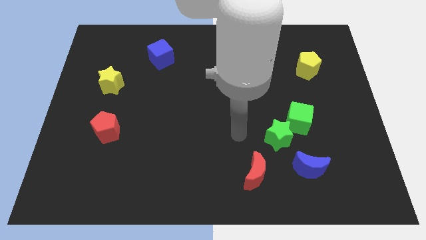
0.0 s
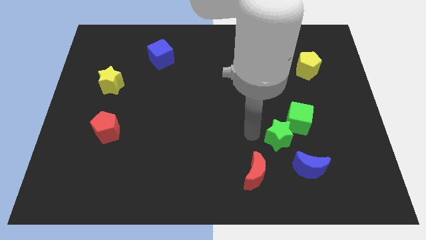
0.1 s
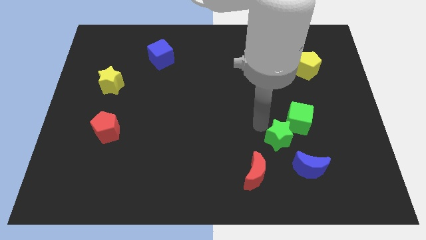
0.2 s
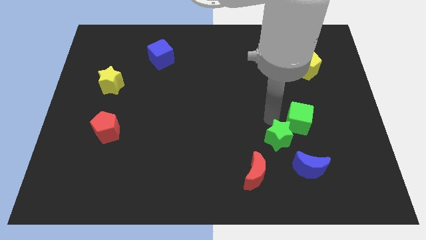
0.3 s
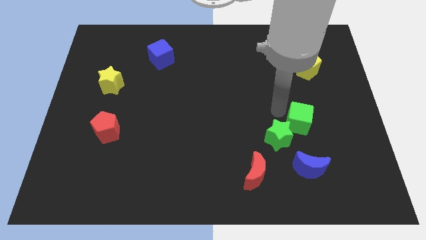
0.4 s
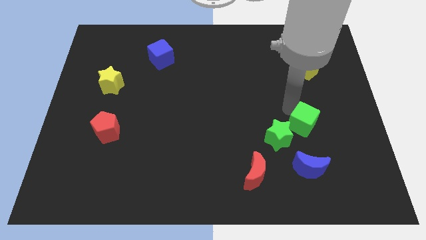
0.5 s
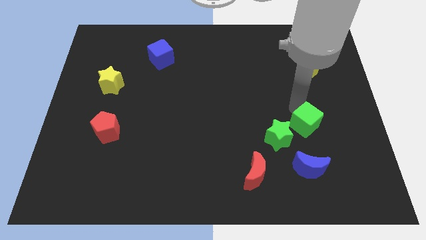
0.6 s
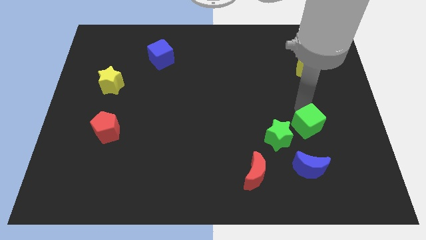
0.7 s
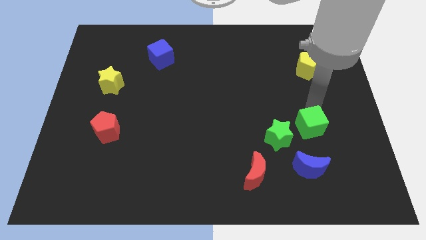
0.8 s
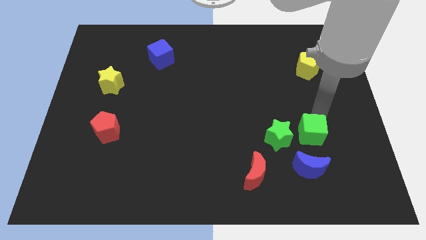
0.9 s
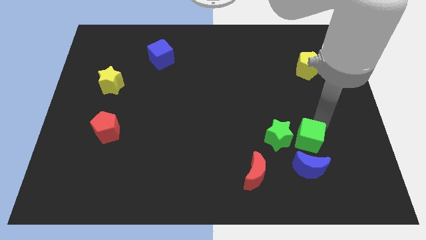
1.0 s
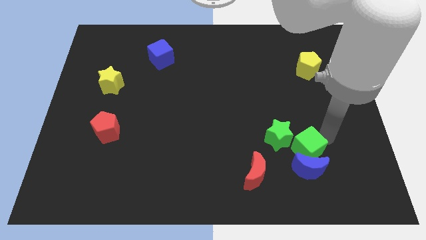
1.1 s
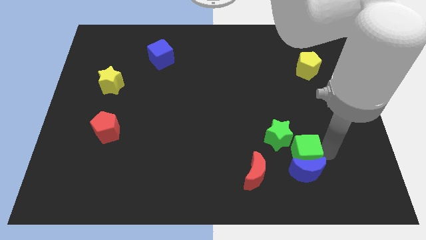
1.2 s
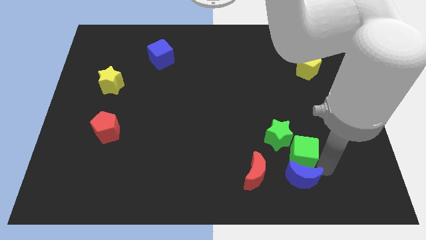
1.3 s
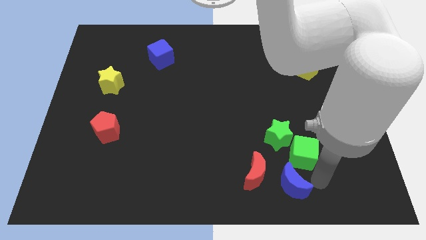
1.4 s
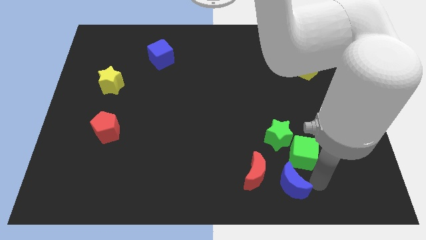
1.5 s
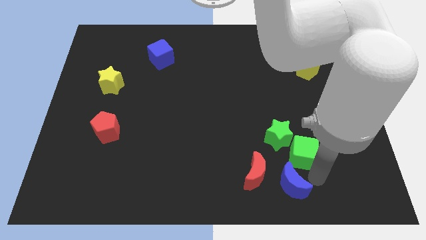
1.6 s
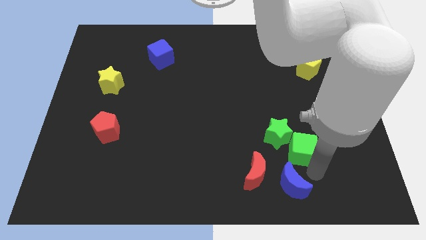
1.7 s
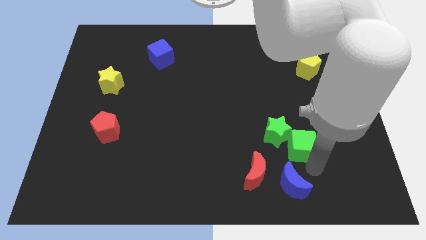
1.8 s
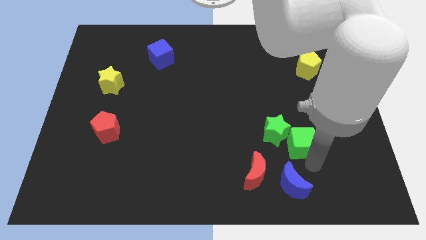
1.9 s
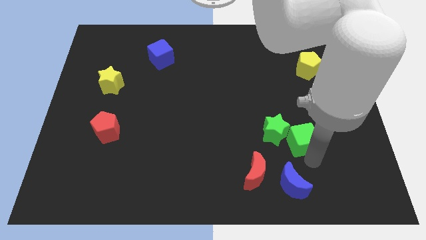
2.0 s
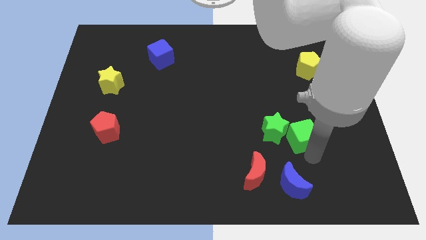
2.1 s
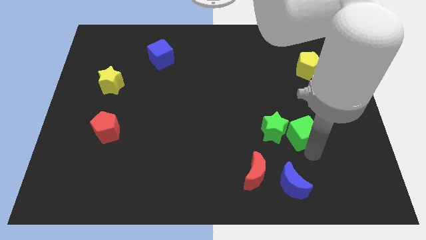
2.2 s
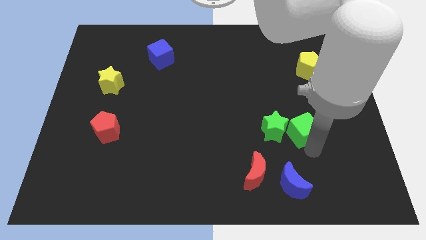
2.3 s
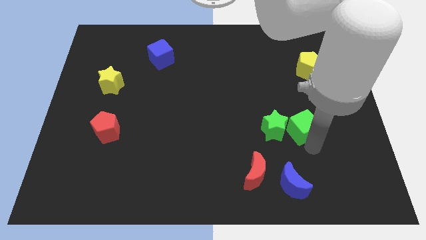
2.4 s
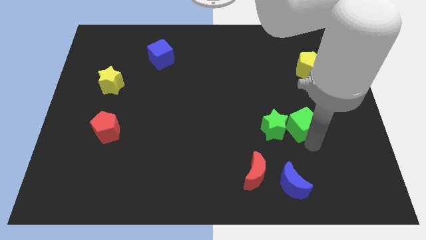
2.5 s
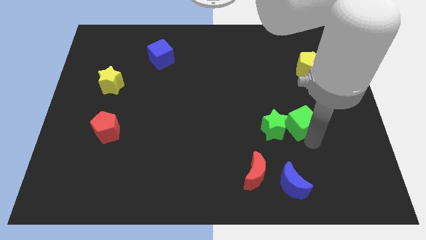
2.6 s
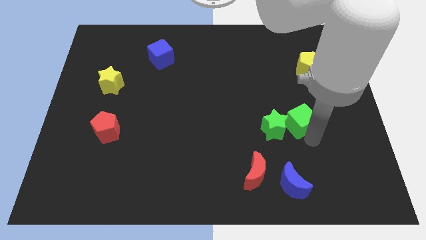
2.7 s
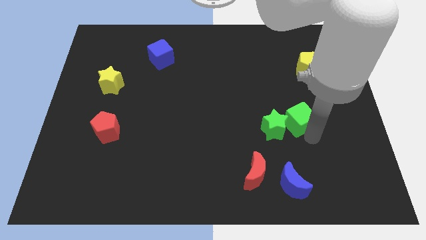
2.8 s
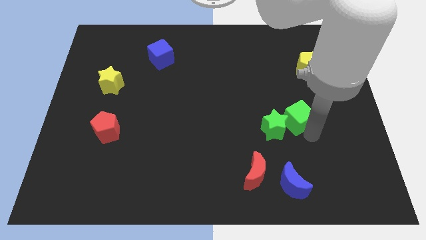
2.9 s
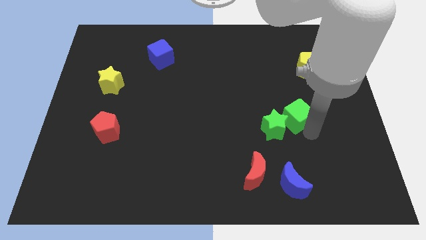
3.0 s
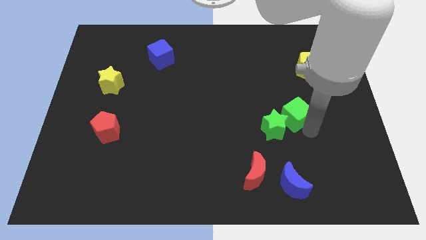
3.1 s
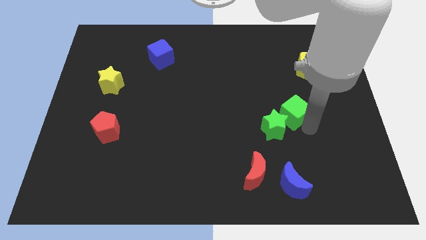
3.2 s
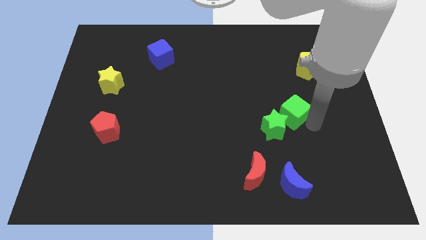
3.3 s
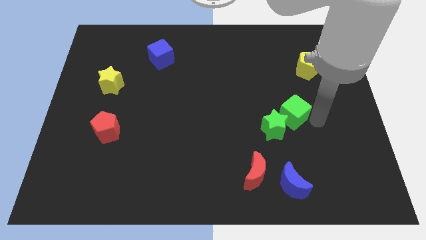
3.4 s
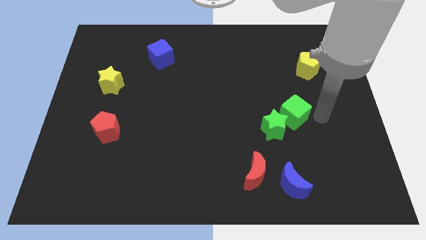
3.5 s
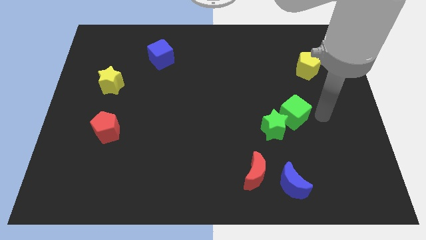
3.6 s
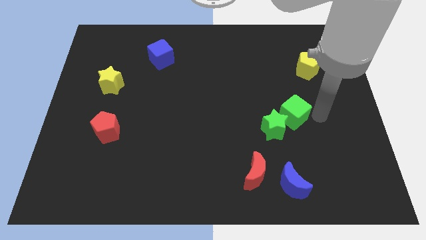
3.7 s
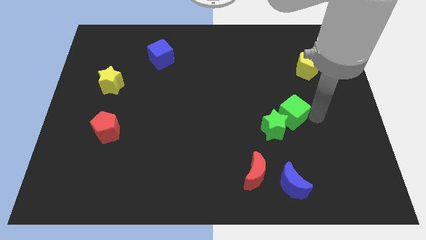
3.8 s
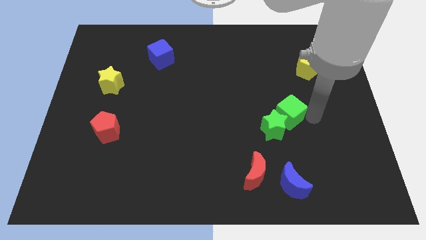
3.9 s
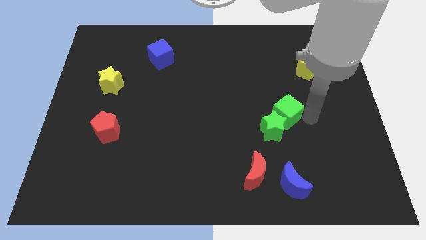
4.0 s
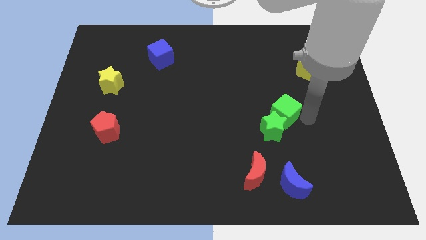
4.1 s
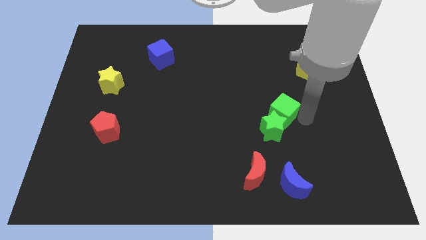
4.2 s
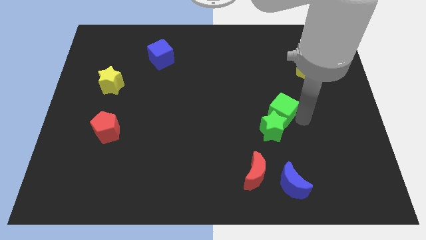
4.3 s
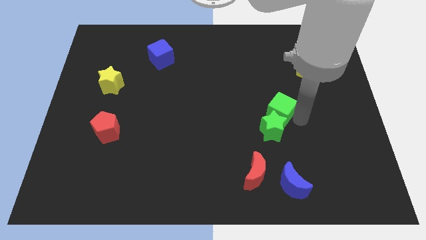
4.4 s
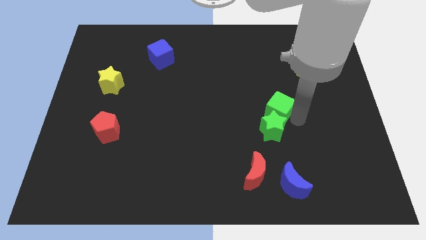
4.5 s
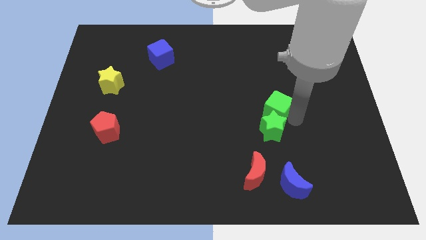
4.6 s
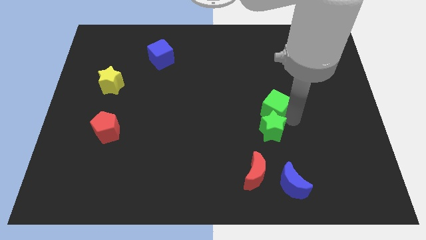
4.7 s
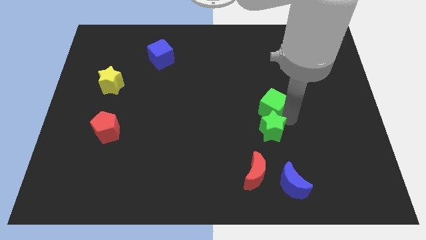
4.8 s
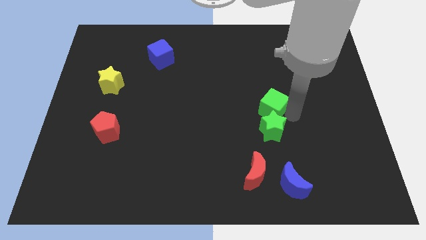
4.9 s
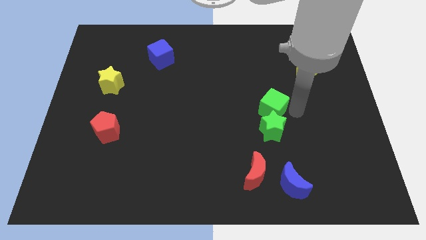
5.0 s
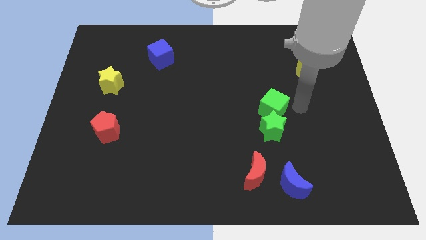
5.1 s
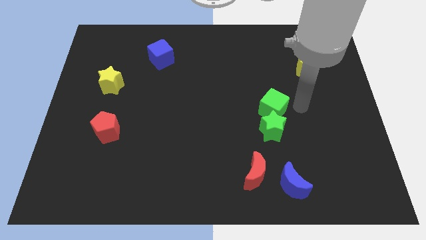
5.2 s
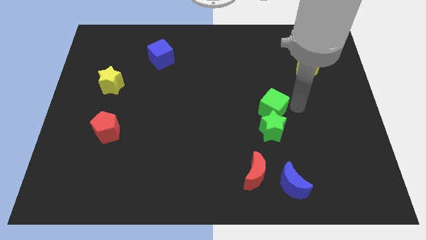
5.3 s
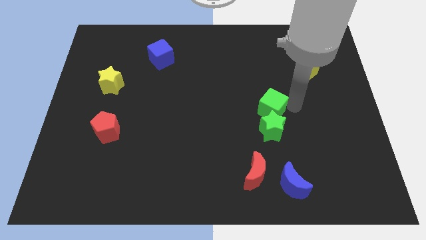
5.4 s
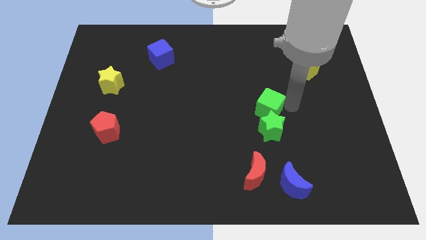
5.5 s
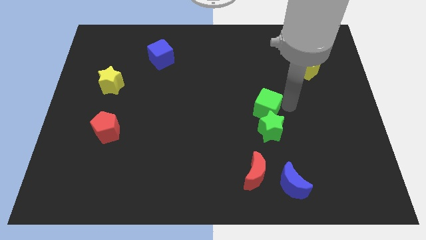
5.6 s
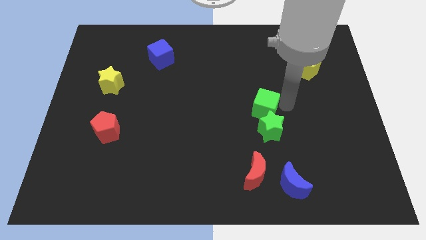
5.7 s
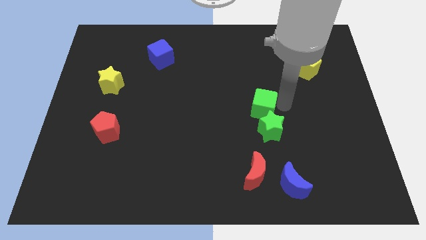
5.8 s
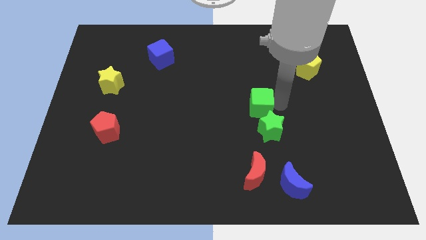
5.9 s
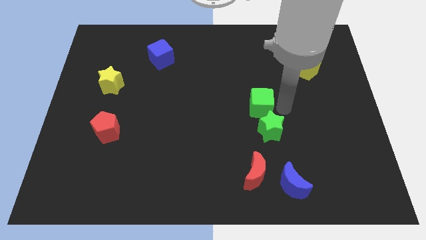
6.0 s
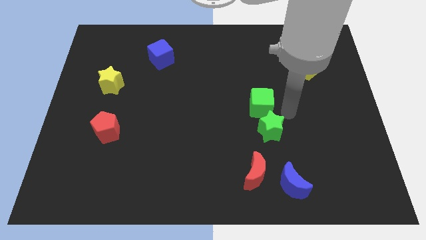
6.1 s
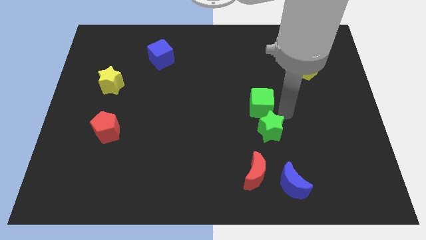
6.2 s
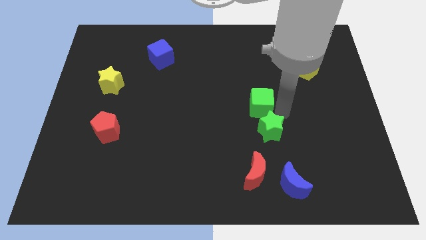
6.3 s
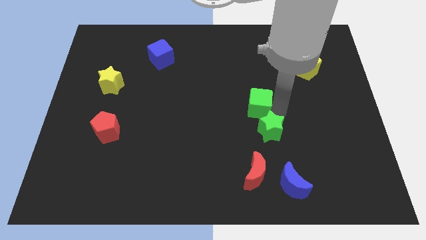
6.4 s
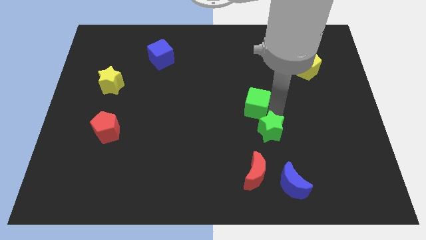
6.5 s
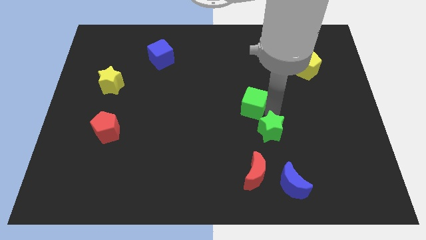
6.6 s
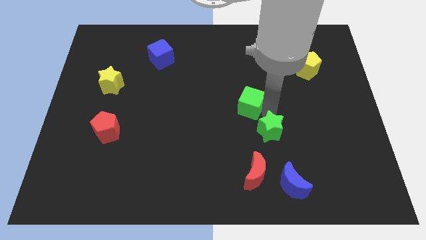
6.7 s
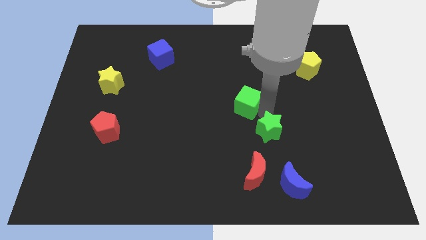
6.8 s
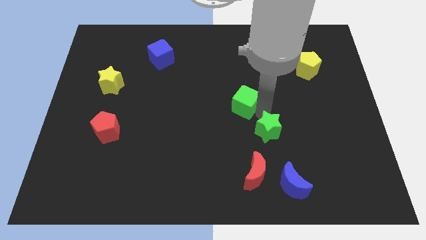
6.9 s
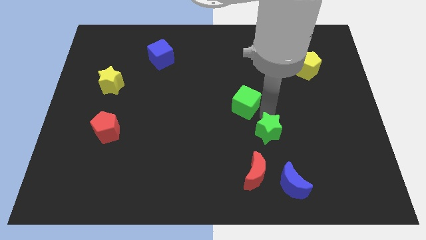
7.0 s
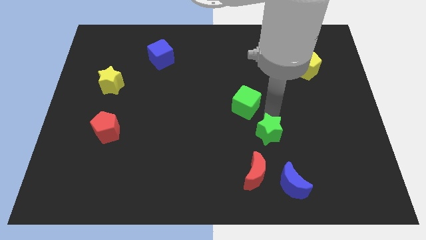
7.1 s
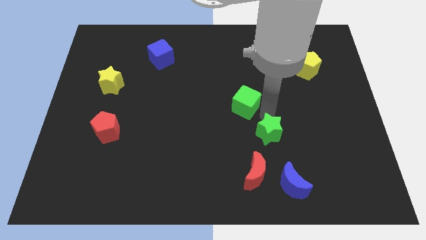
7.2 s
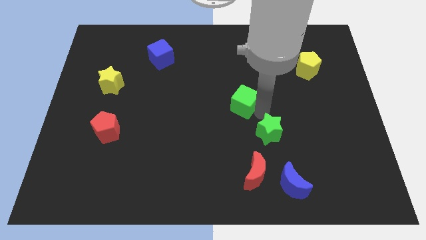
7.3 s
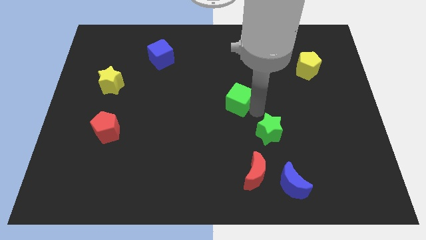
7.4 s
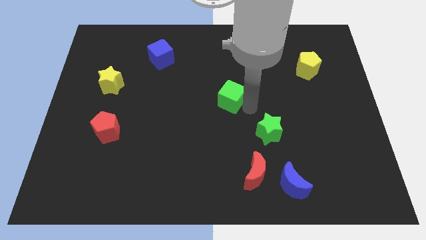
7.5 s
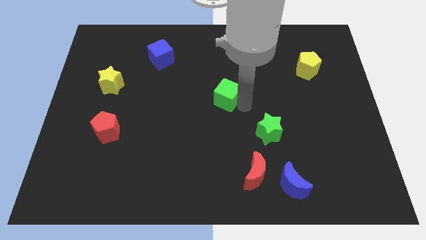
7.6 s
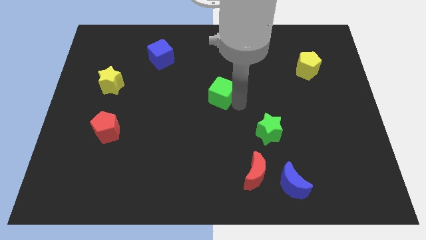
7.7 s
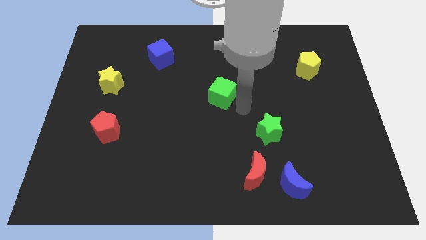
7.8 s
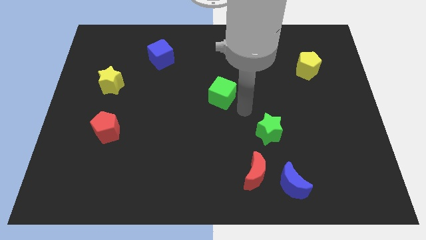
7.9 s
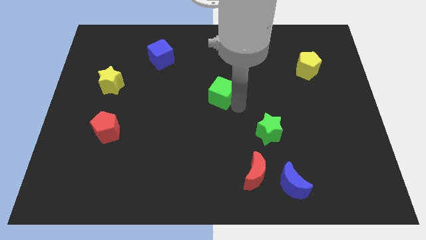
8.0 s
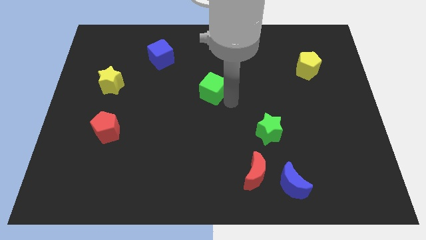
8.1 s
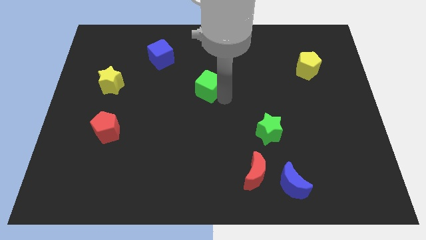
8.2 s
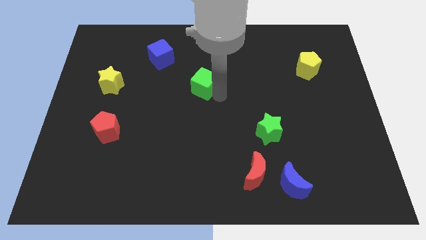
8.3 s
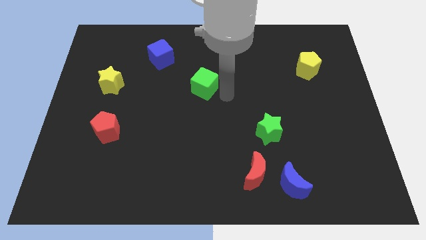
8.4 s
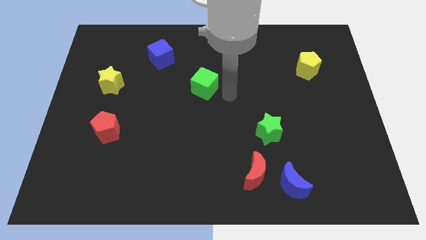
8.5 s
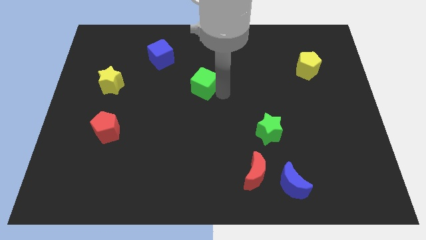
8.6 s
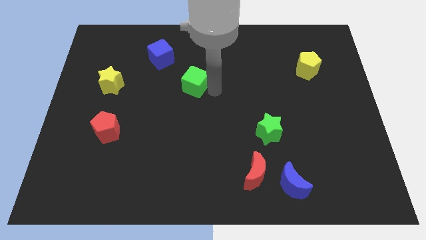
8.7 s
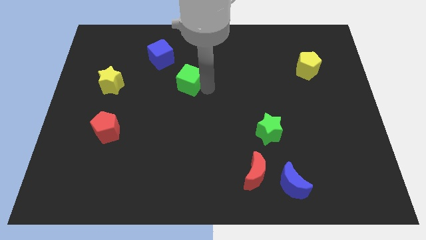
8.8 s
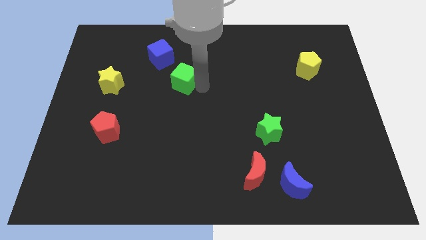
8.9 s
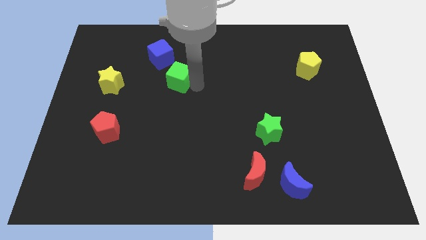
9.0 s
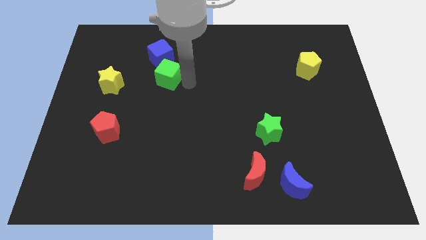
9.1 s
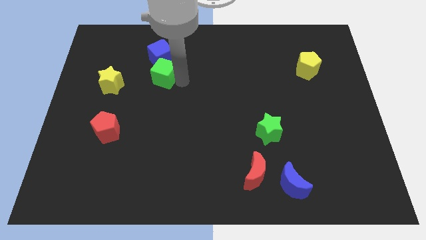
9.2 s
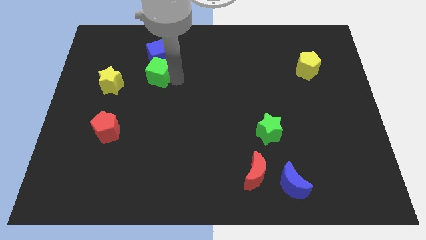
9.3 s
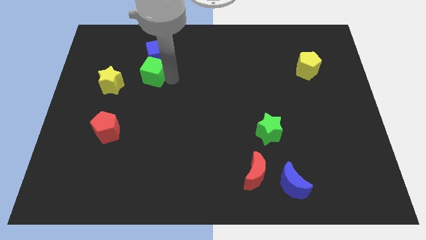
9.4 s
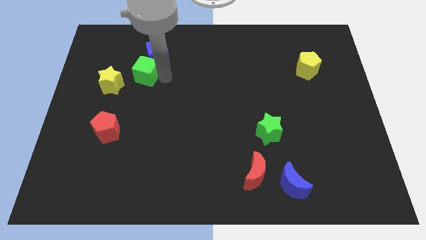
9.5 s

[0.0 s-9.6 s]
move the green cube diagonally up and to the right of the yellow star
